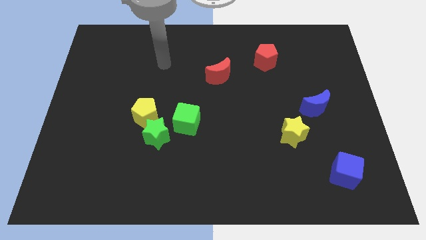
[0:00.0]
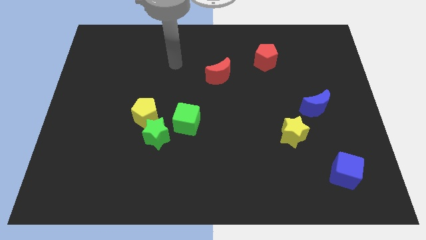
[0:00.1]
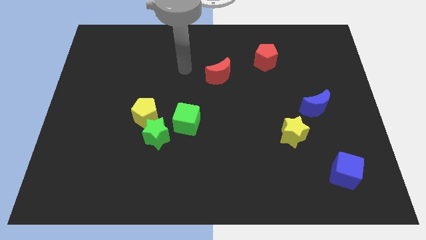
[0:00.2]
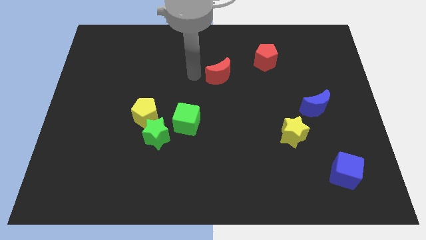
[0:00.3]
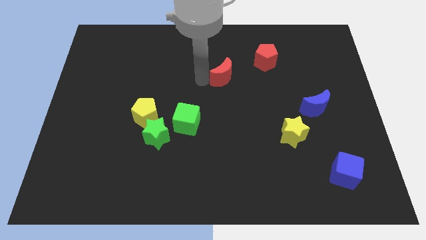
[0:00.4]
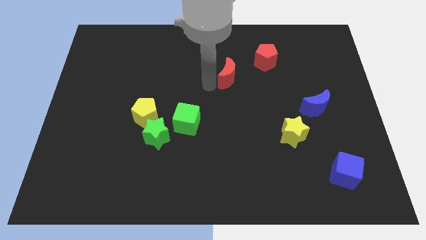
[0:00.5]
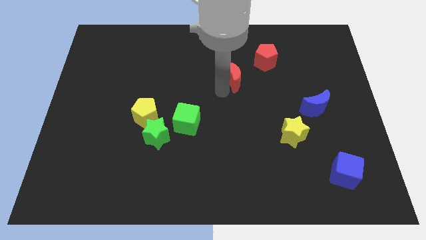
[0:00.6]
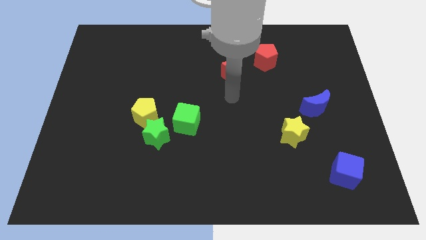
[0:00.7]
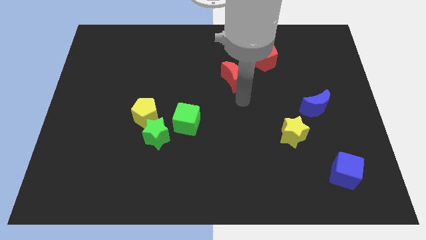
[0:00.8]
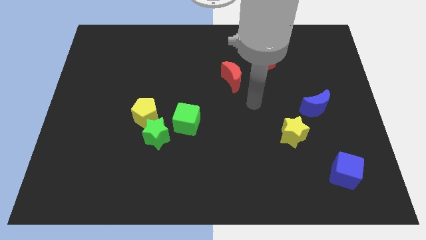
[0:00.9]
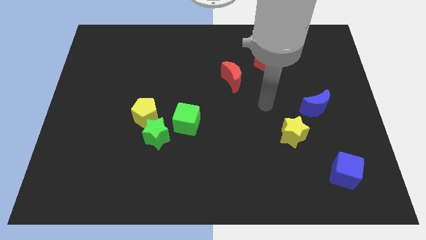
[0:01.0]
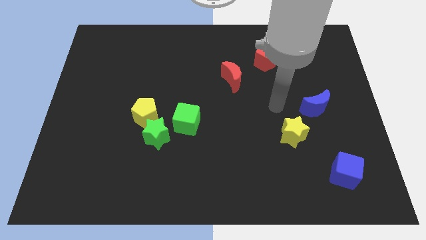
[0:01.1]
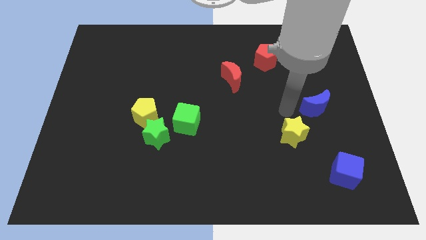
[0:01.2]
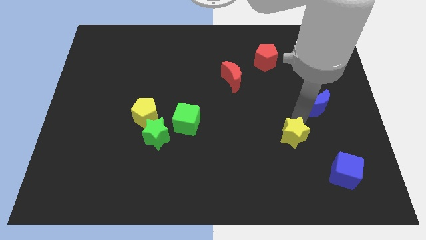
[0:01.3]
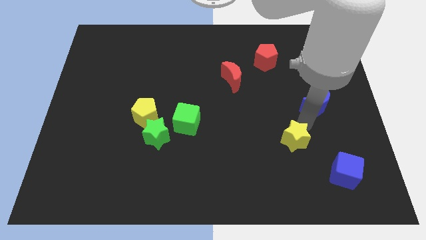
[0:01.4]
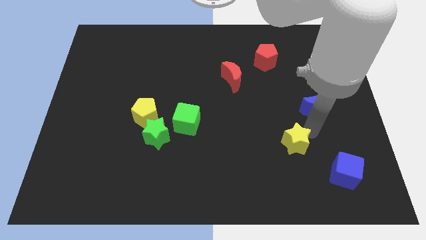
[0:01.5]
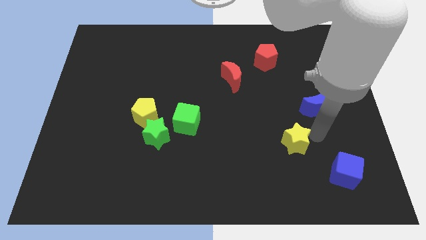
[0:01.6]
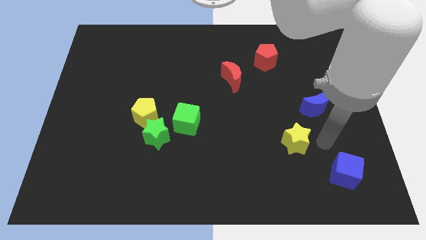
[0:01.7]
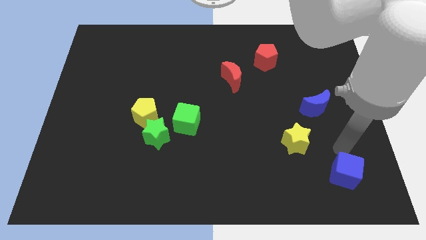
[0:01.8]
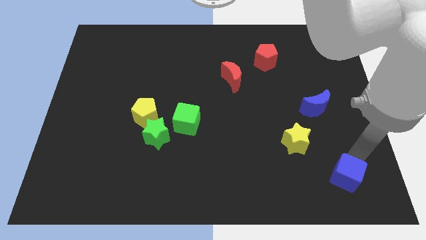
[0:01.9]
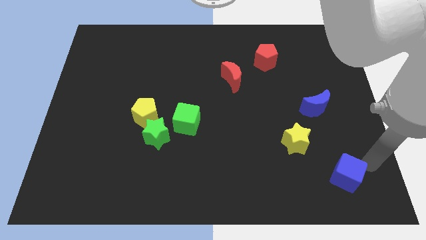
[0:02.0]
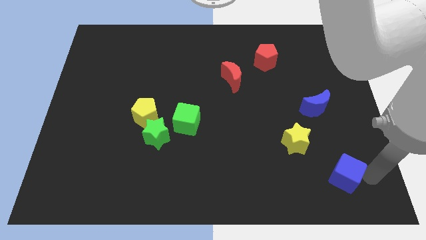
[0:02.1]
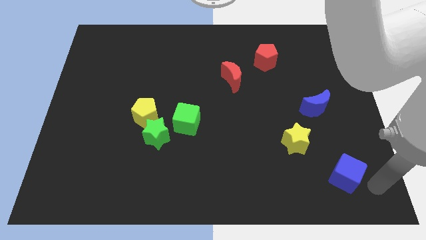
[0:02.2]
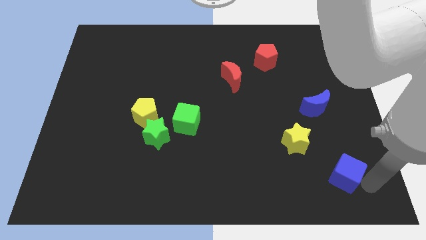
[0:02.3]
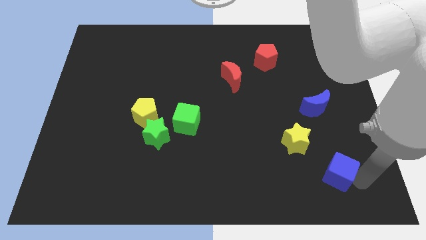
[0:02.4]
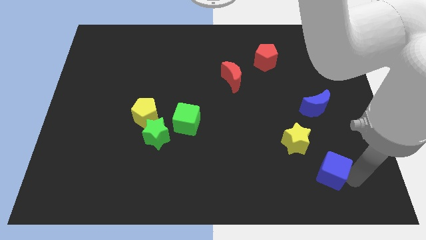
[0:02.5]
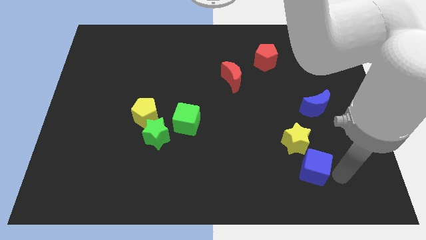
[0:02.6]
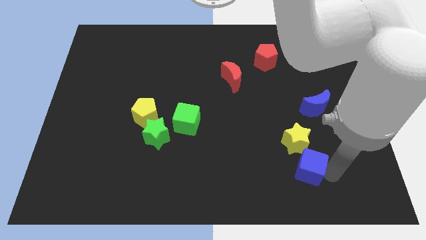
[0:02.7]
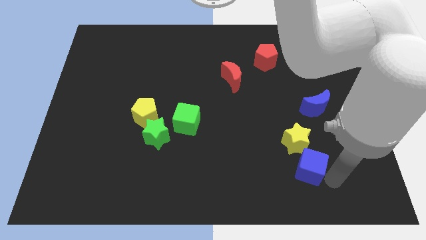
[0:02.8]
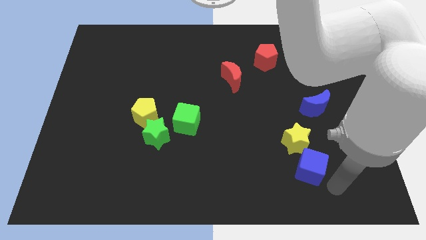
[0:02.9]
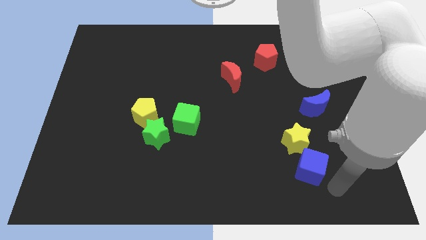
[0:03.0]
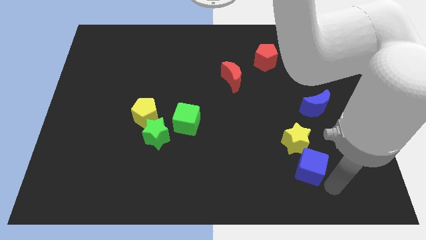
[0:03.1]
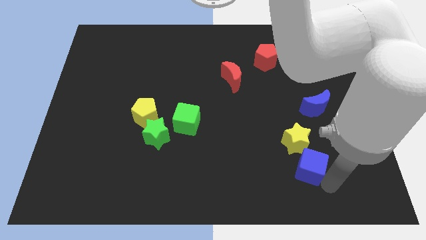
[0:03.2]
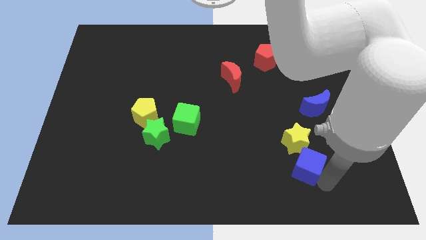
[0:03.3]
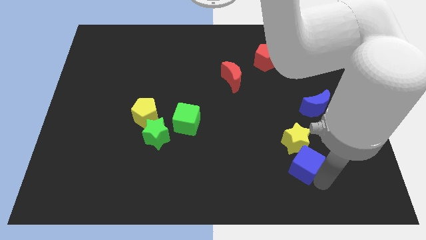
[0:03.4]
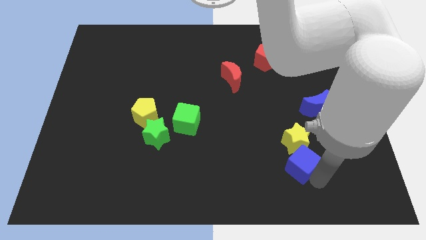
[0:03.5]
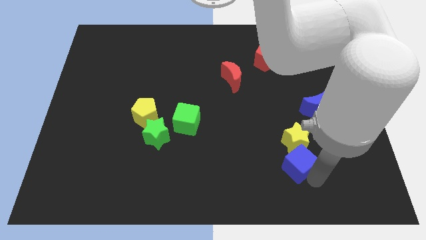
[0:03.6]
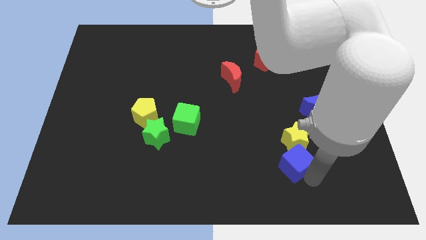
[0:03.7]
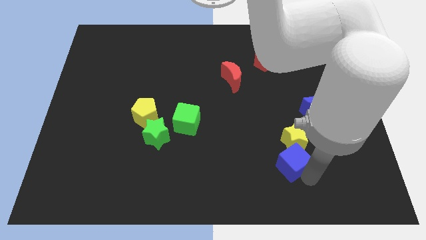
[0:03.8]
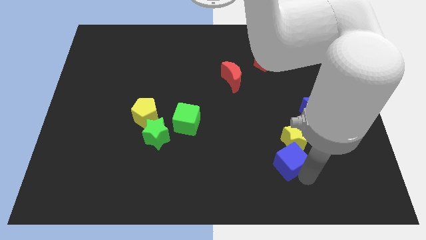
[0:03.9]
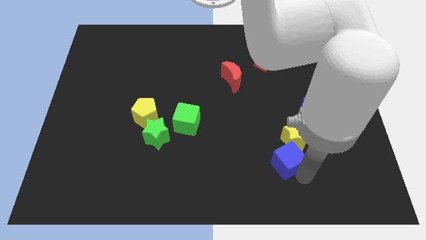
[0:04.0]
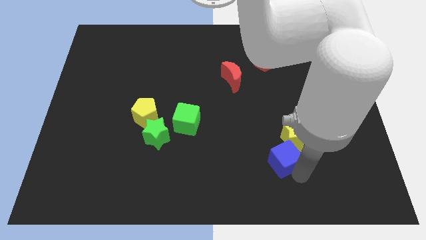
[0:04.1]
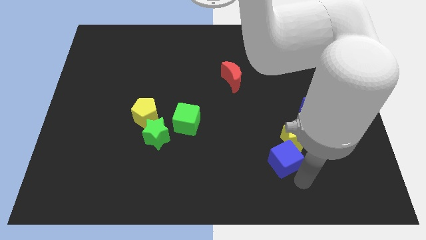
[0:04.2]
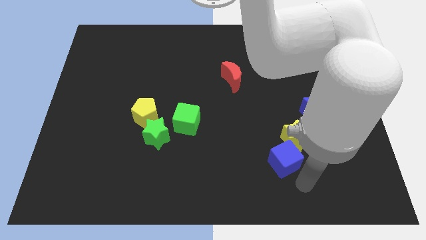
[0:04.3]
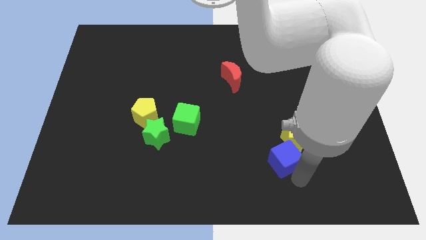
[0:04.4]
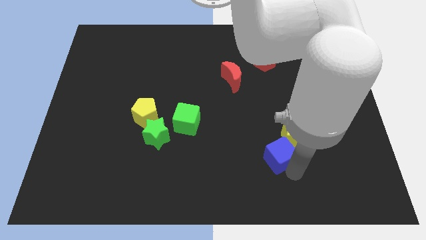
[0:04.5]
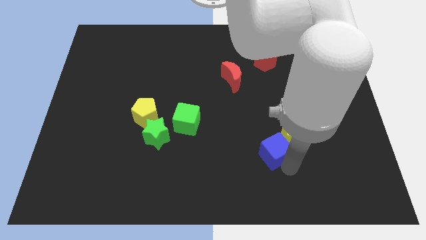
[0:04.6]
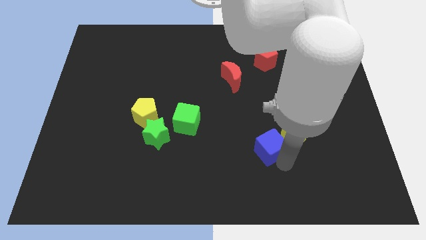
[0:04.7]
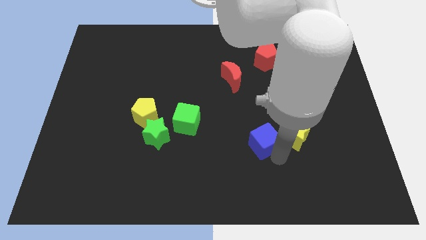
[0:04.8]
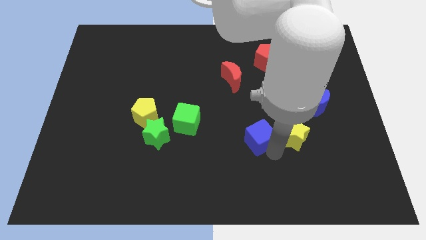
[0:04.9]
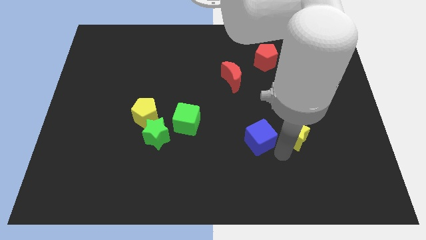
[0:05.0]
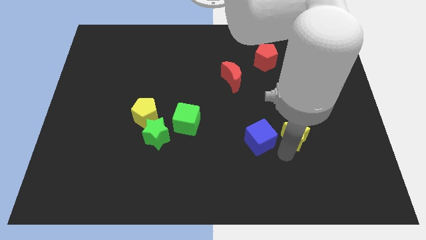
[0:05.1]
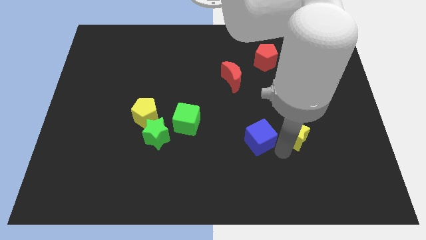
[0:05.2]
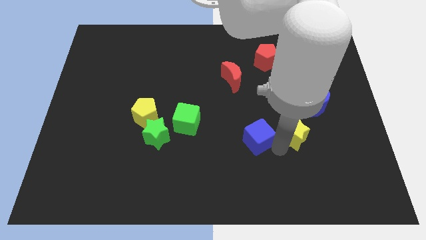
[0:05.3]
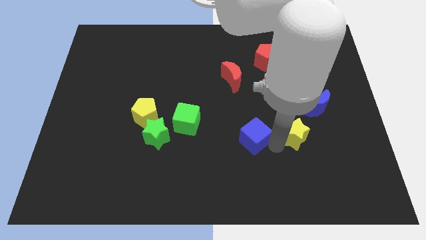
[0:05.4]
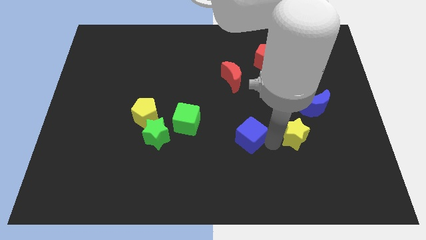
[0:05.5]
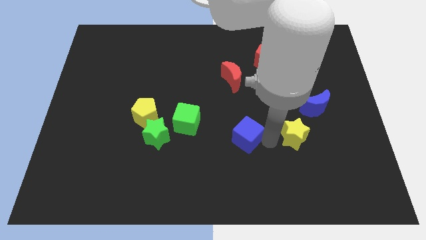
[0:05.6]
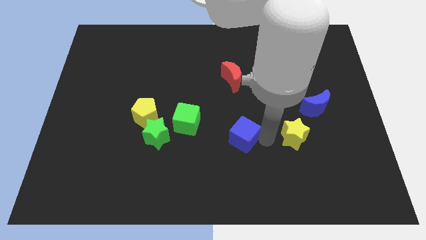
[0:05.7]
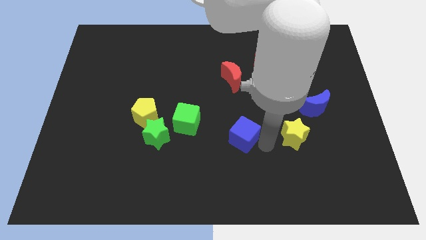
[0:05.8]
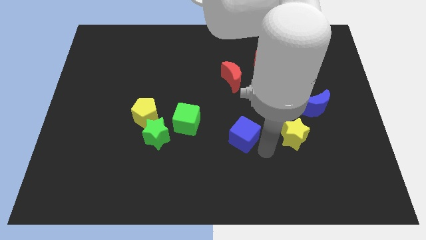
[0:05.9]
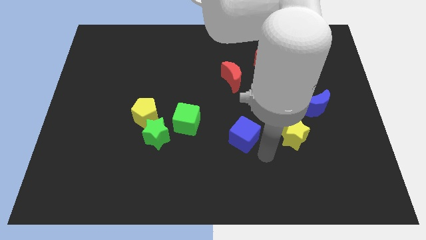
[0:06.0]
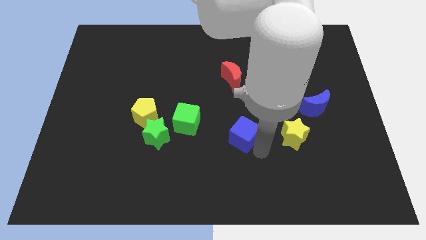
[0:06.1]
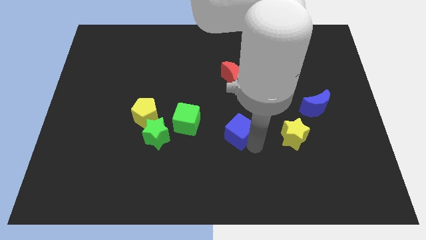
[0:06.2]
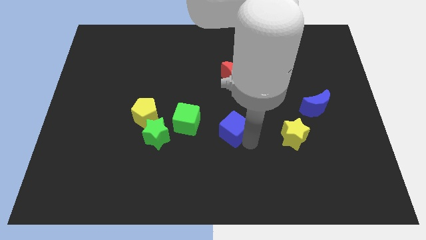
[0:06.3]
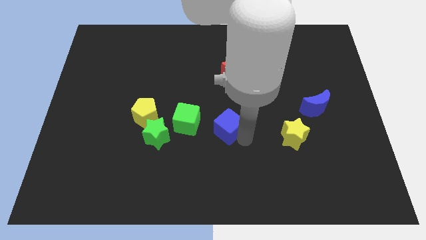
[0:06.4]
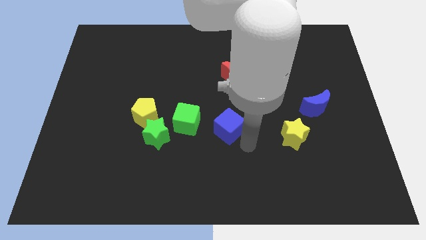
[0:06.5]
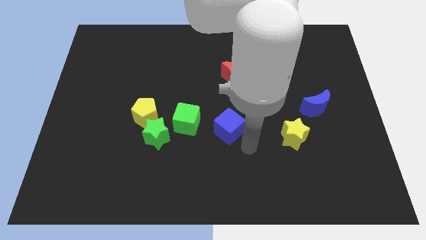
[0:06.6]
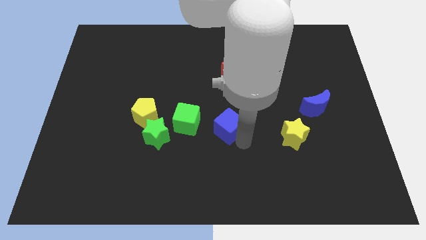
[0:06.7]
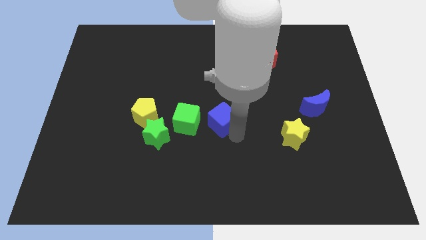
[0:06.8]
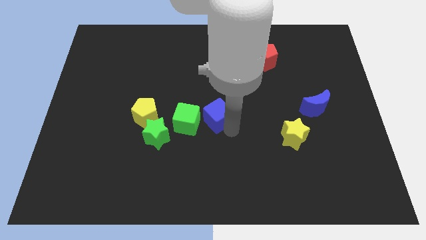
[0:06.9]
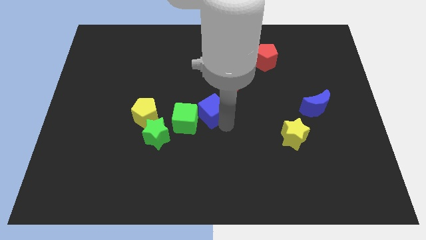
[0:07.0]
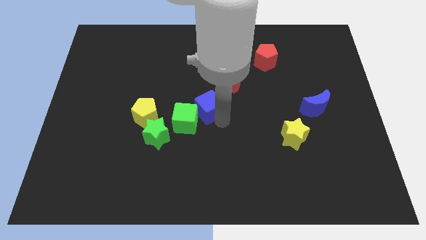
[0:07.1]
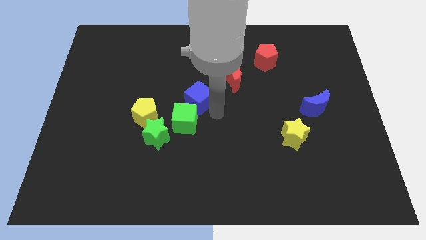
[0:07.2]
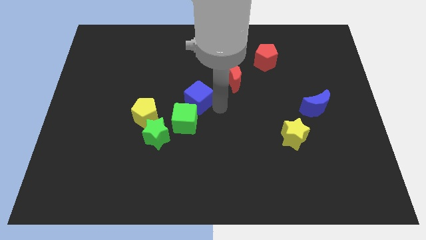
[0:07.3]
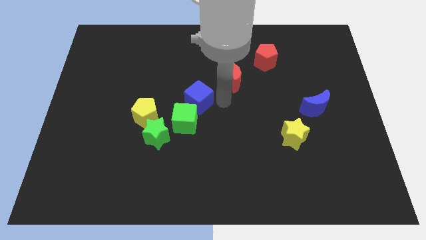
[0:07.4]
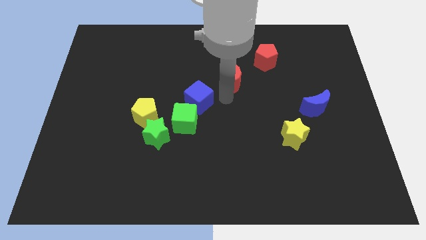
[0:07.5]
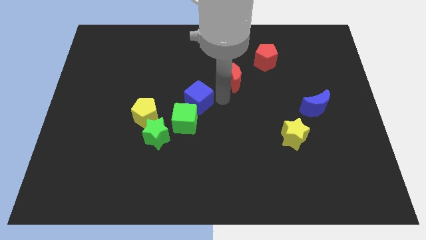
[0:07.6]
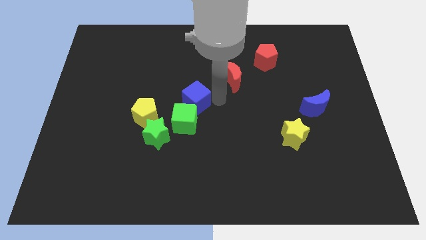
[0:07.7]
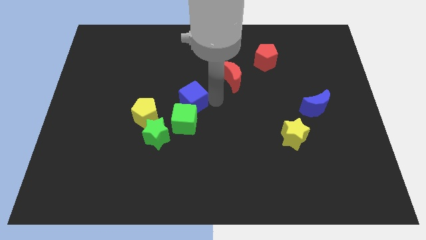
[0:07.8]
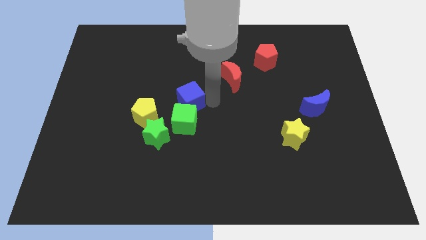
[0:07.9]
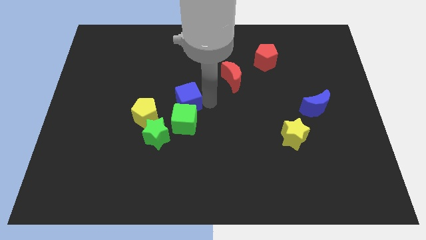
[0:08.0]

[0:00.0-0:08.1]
push the blue cube diagonally up and to the left of the green cube

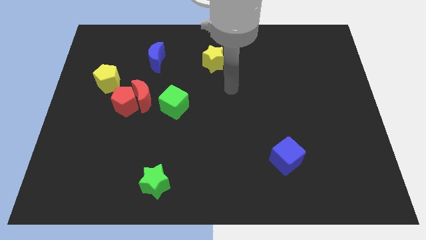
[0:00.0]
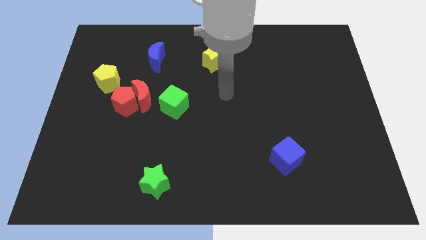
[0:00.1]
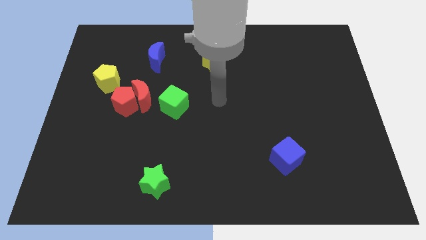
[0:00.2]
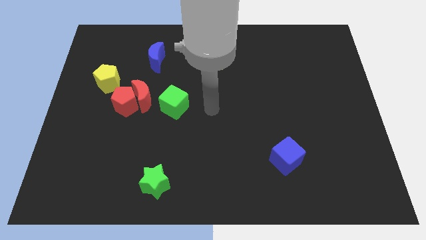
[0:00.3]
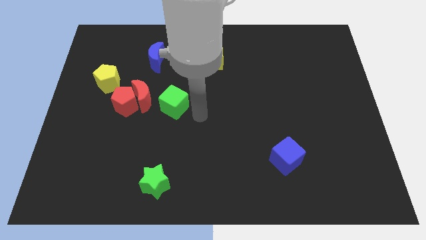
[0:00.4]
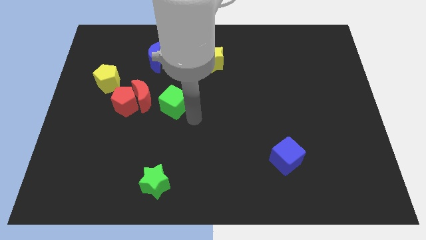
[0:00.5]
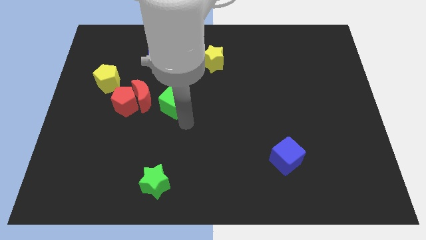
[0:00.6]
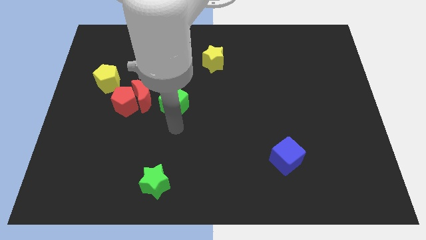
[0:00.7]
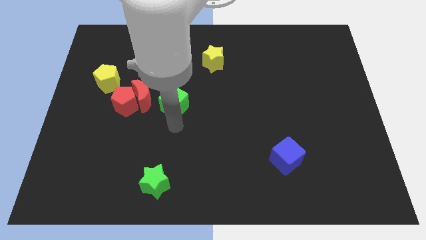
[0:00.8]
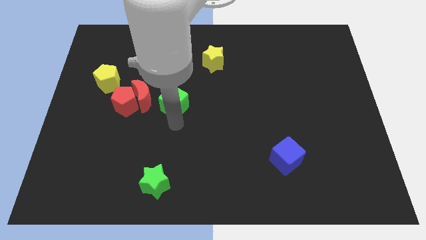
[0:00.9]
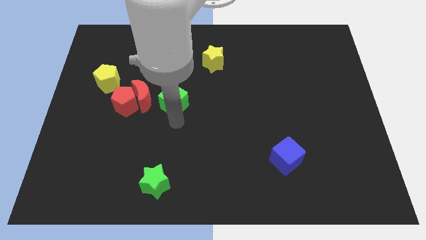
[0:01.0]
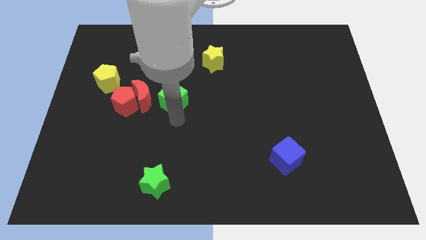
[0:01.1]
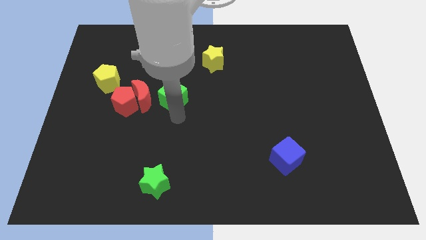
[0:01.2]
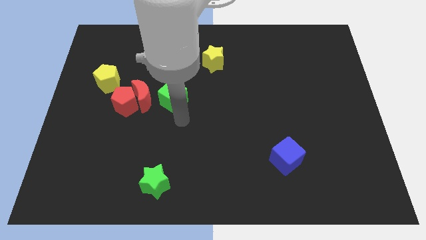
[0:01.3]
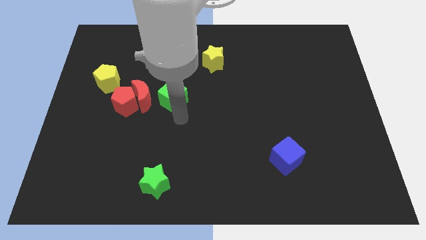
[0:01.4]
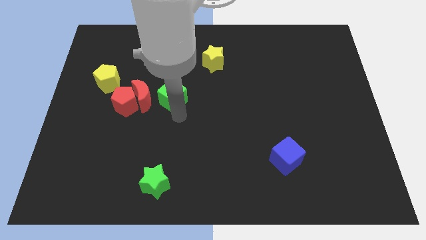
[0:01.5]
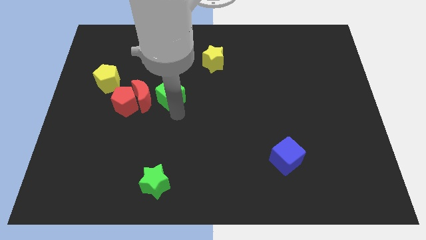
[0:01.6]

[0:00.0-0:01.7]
push the green cube diagonally up and to the right of the red moon
